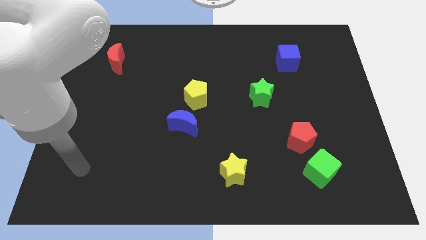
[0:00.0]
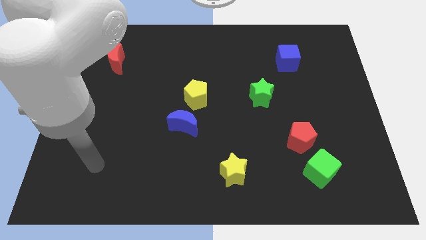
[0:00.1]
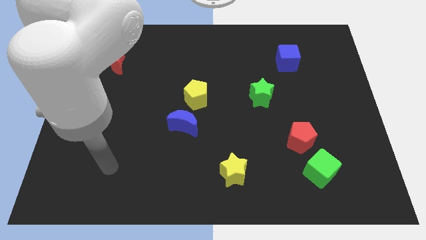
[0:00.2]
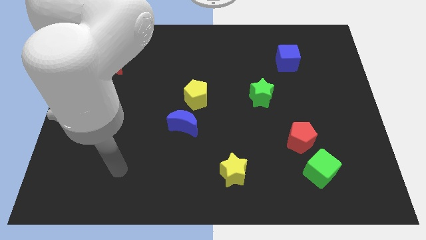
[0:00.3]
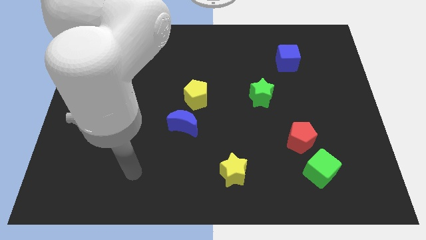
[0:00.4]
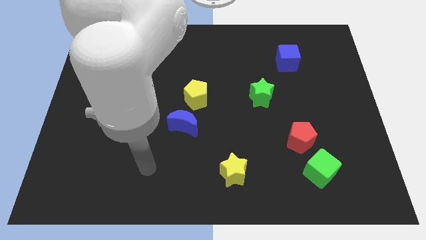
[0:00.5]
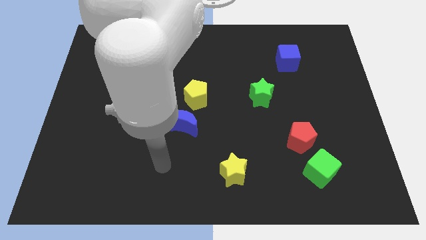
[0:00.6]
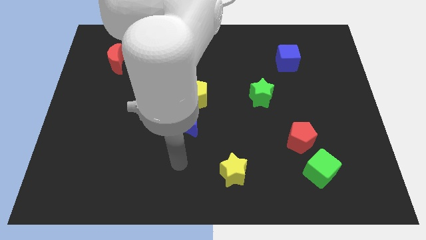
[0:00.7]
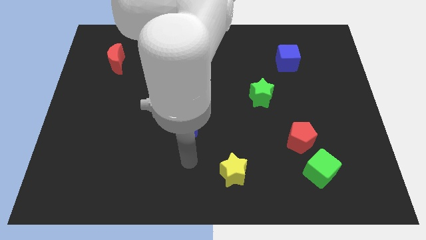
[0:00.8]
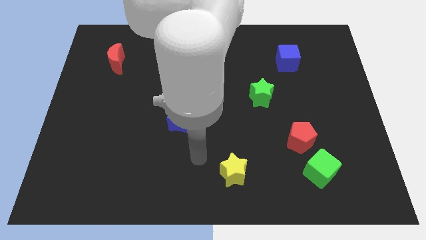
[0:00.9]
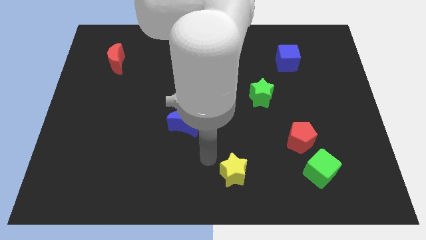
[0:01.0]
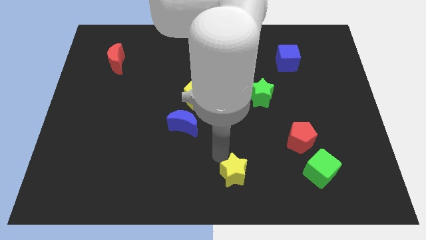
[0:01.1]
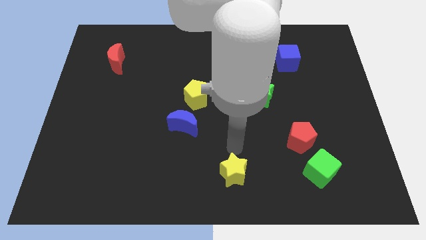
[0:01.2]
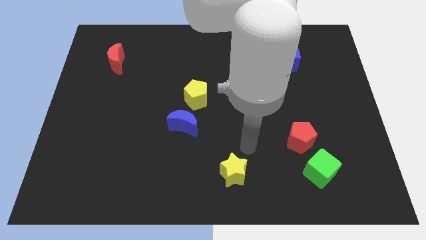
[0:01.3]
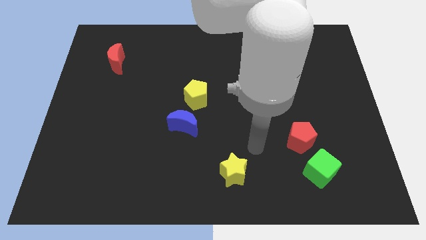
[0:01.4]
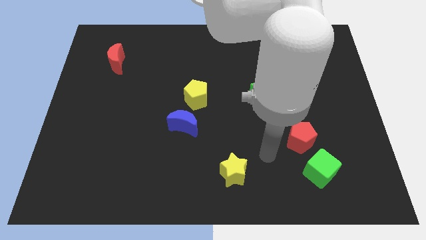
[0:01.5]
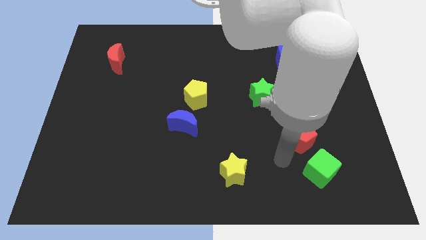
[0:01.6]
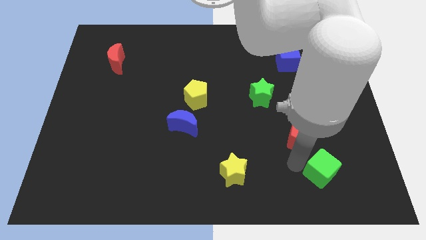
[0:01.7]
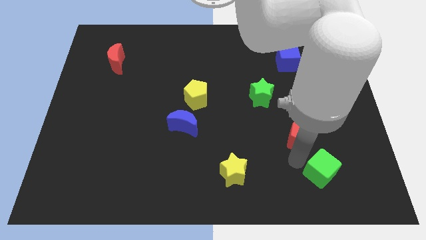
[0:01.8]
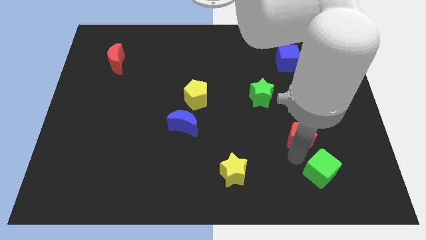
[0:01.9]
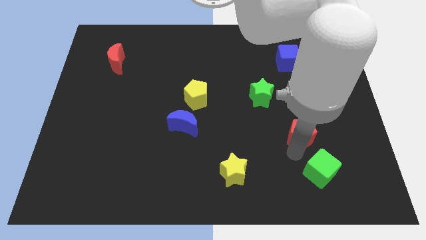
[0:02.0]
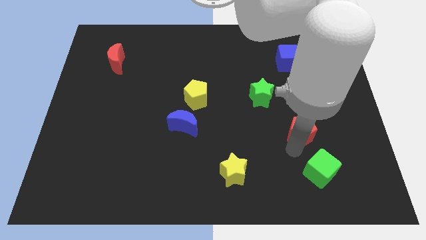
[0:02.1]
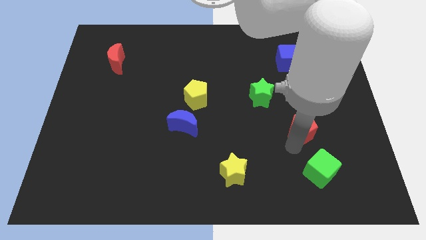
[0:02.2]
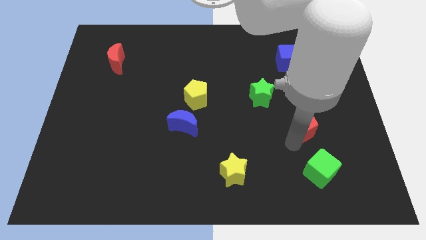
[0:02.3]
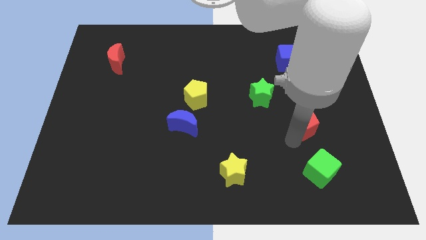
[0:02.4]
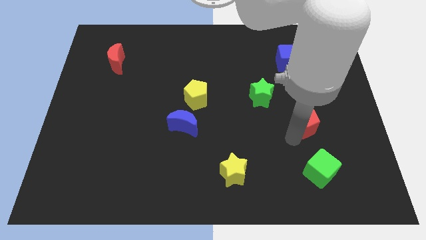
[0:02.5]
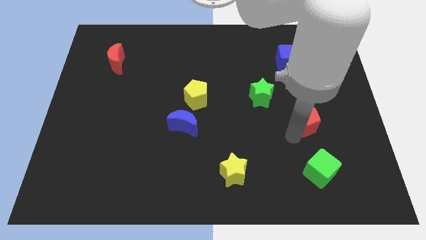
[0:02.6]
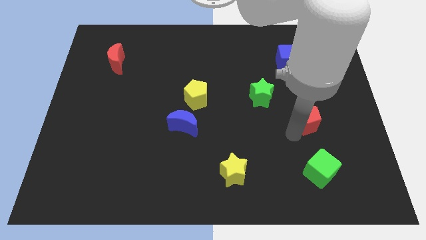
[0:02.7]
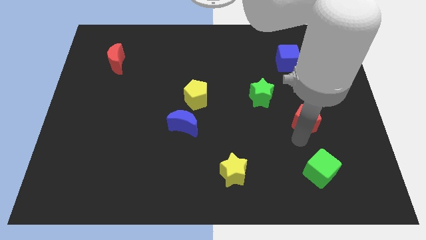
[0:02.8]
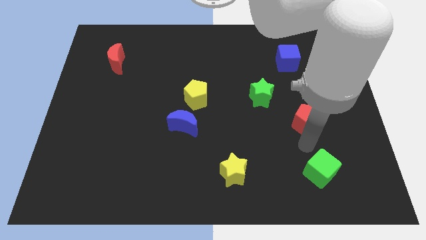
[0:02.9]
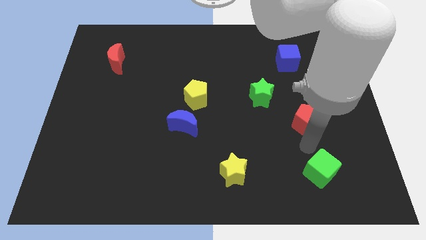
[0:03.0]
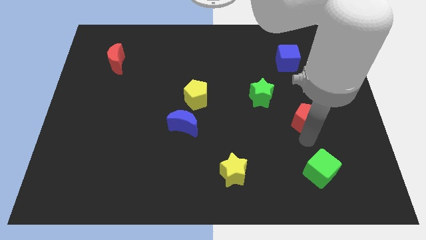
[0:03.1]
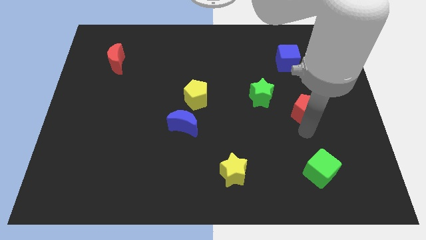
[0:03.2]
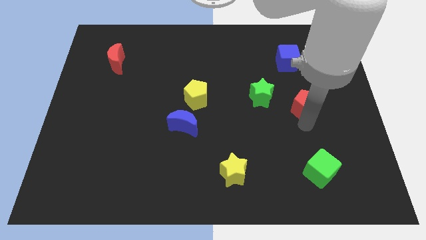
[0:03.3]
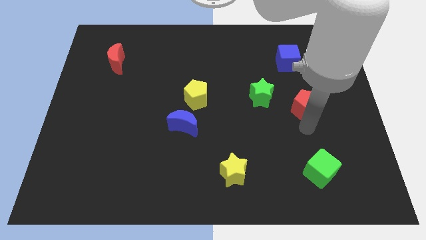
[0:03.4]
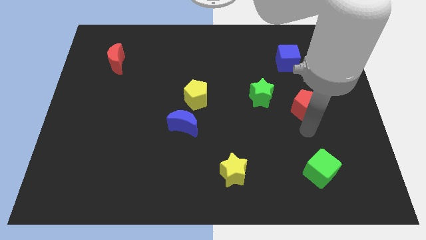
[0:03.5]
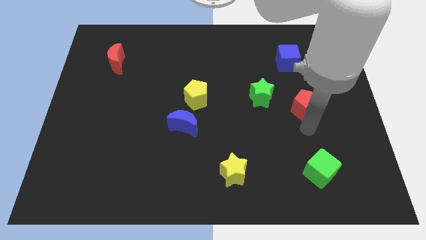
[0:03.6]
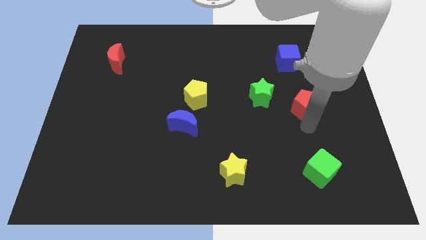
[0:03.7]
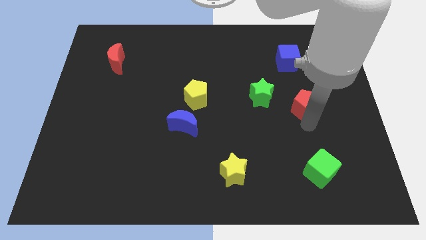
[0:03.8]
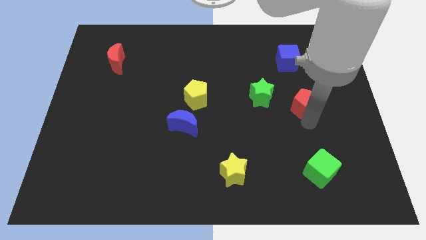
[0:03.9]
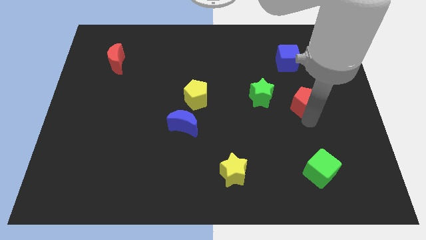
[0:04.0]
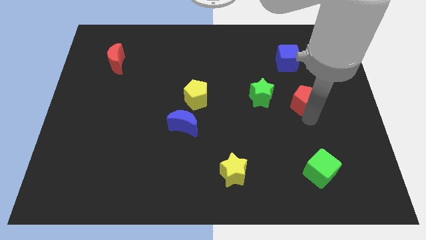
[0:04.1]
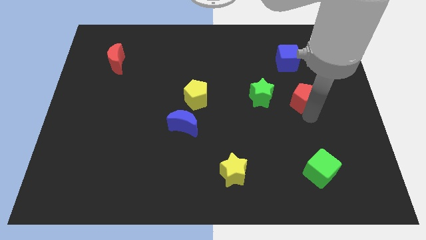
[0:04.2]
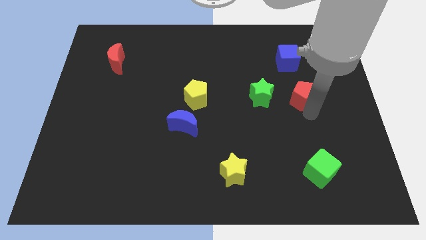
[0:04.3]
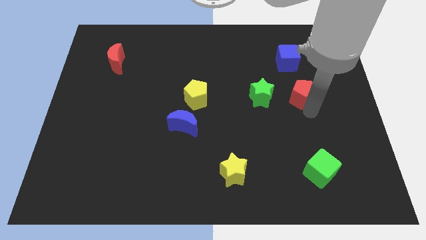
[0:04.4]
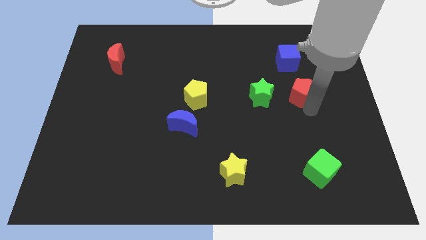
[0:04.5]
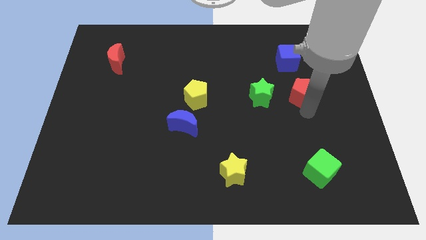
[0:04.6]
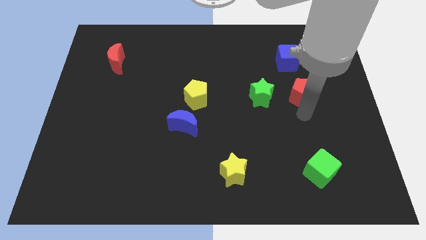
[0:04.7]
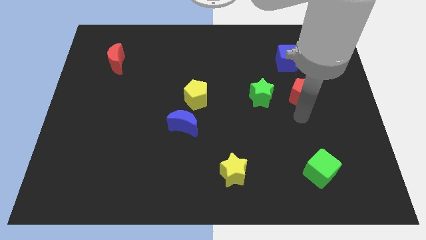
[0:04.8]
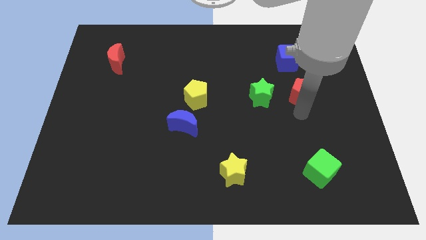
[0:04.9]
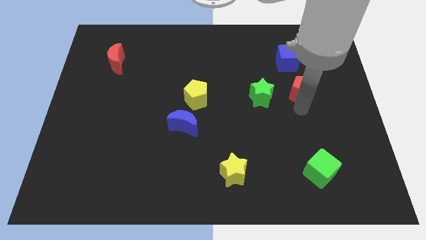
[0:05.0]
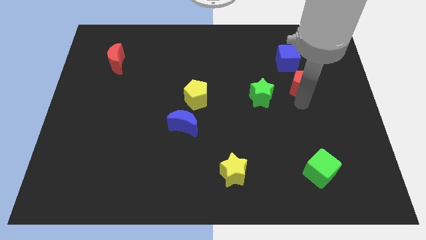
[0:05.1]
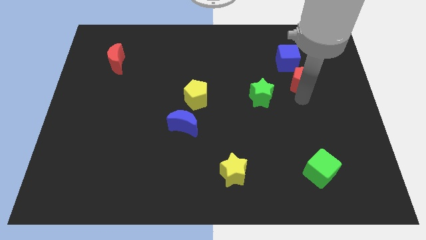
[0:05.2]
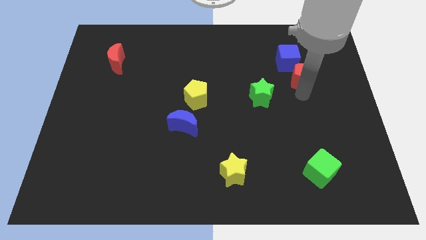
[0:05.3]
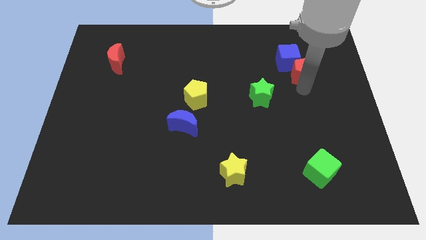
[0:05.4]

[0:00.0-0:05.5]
move the red pentagon next to the blue cube

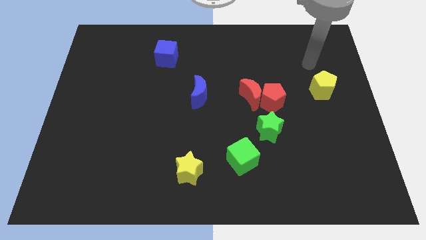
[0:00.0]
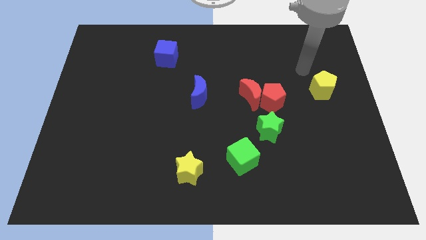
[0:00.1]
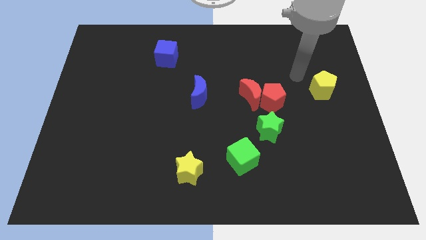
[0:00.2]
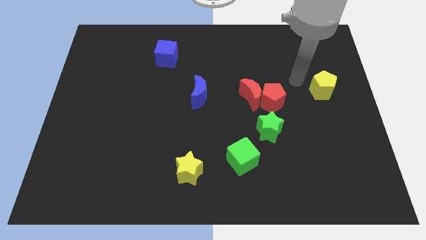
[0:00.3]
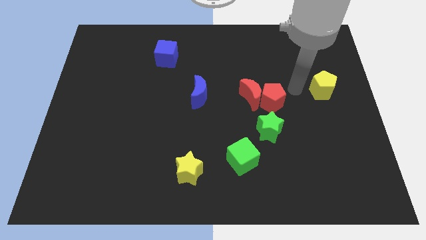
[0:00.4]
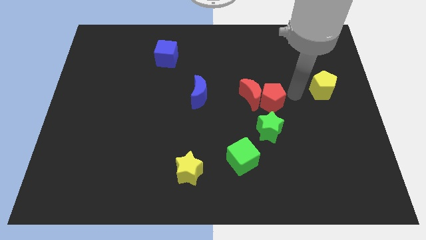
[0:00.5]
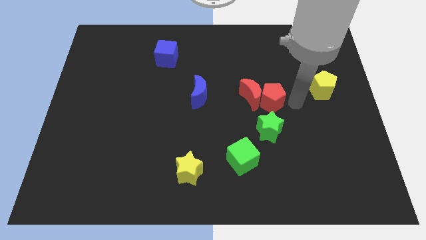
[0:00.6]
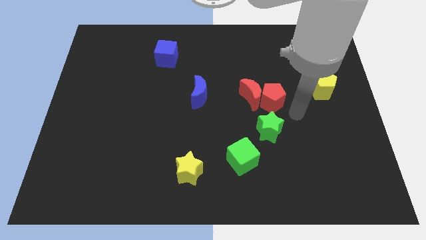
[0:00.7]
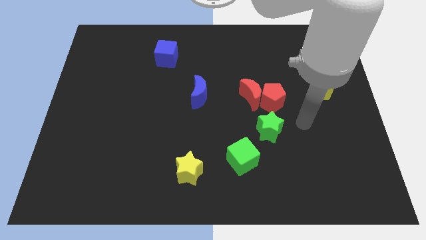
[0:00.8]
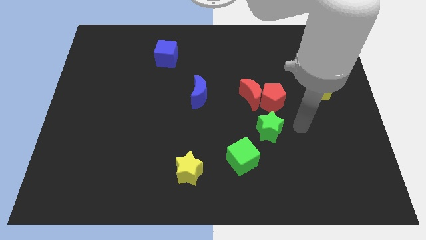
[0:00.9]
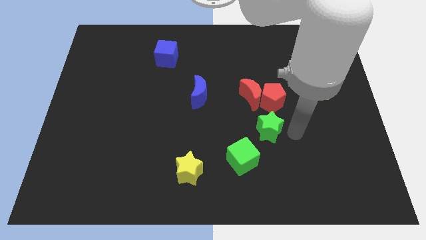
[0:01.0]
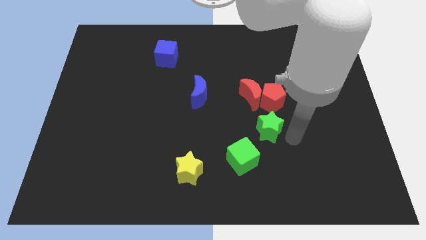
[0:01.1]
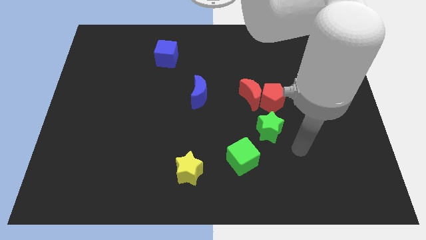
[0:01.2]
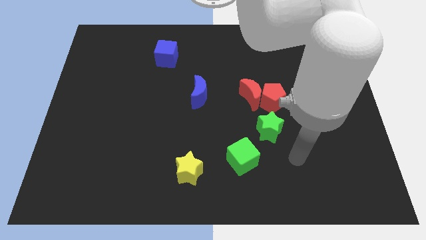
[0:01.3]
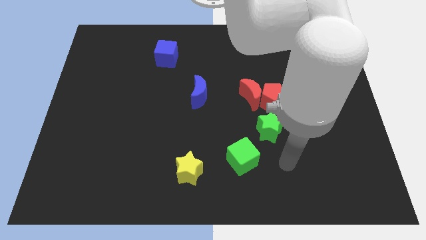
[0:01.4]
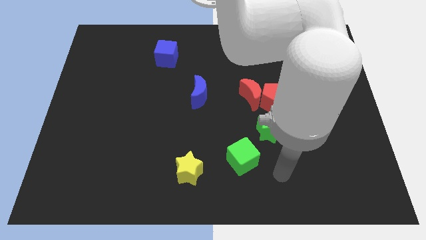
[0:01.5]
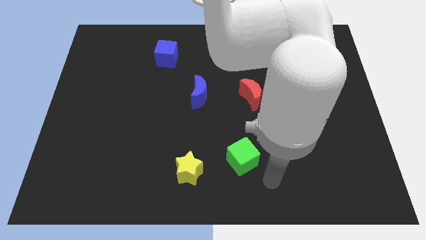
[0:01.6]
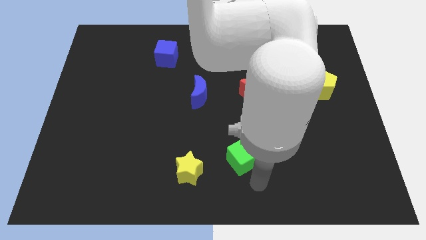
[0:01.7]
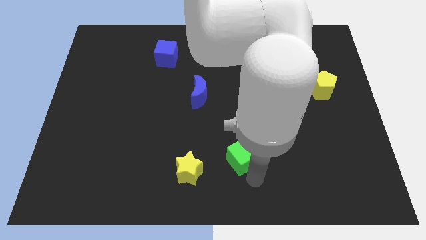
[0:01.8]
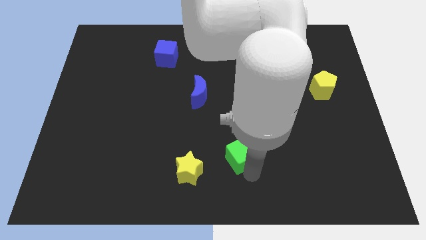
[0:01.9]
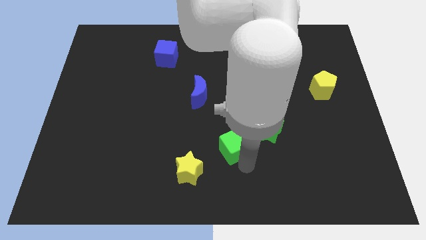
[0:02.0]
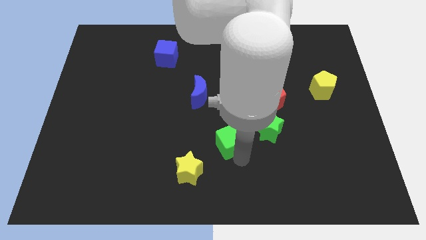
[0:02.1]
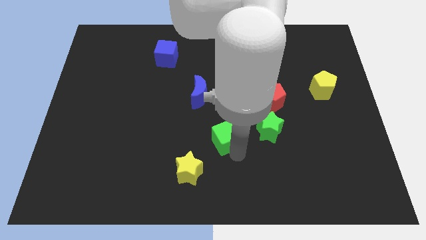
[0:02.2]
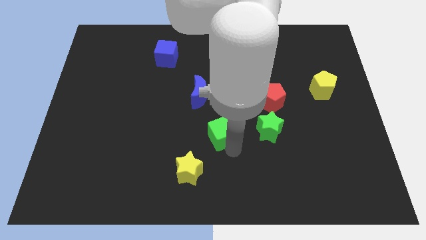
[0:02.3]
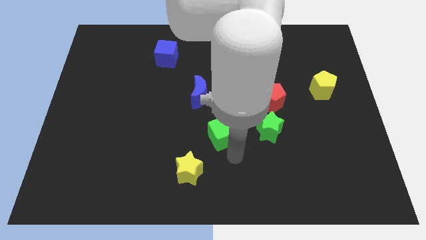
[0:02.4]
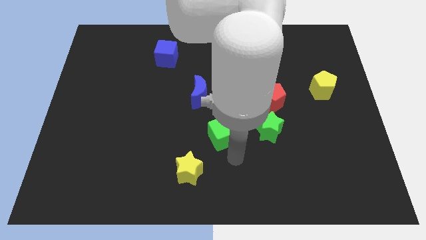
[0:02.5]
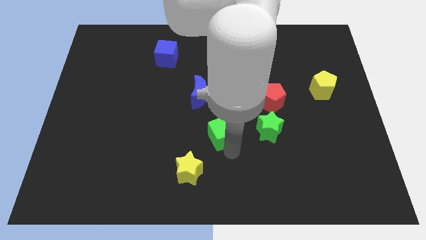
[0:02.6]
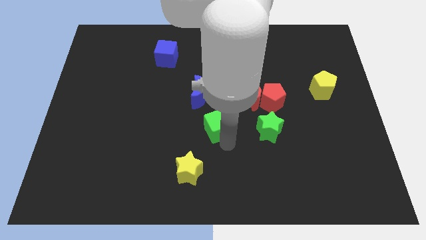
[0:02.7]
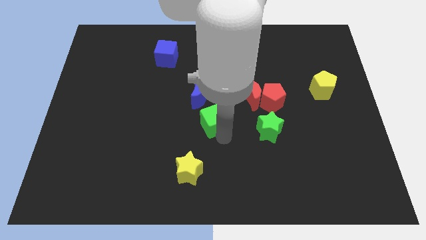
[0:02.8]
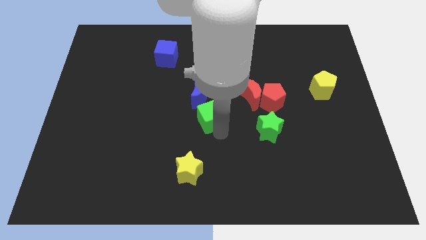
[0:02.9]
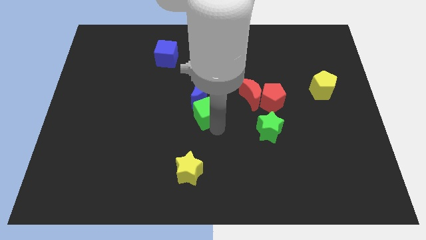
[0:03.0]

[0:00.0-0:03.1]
put the green cube towards the blue moon
